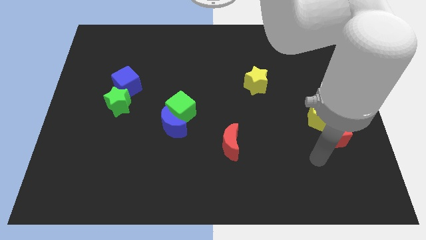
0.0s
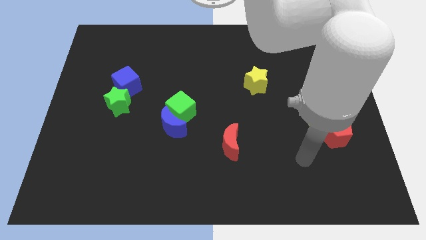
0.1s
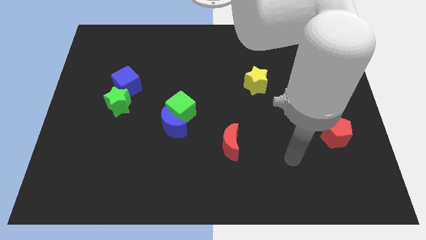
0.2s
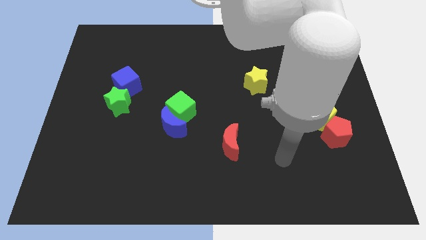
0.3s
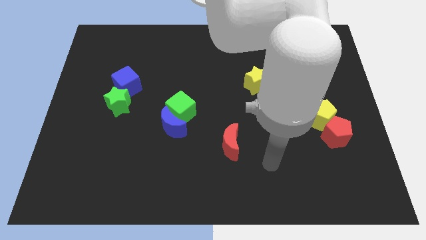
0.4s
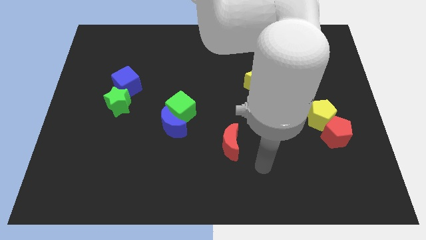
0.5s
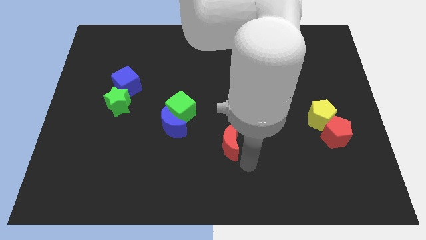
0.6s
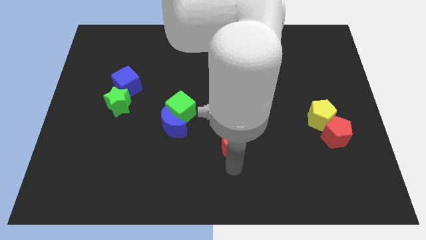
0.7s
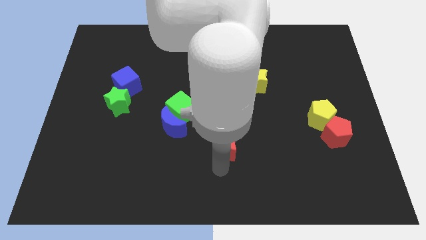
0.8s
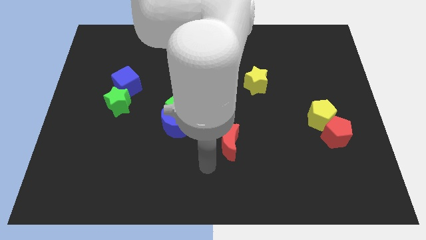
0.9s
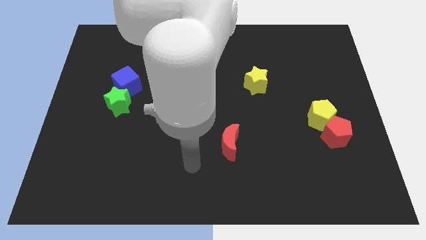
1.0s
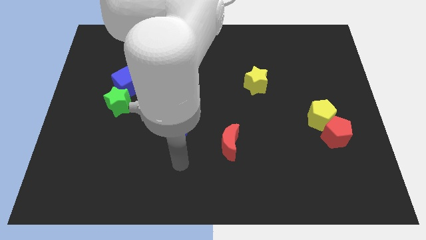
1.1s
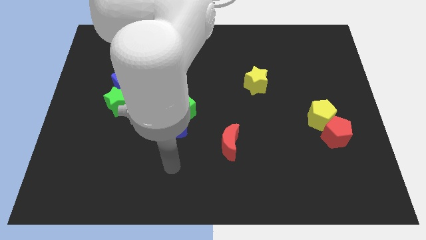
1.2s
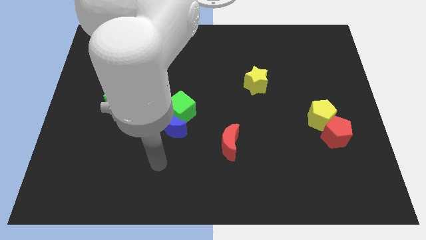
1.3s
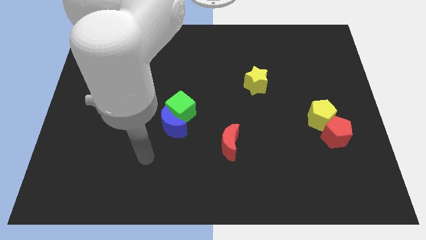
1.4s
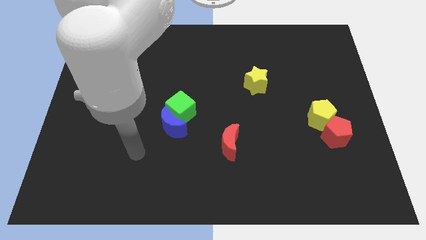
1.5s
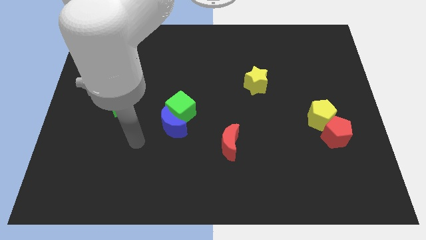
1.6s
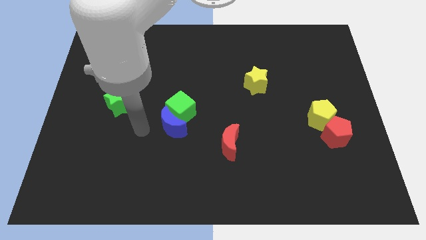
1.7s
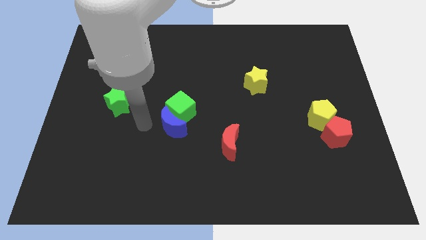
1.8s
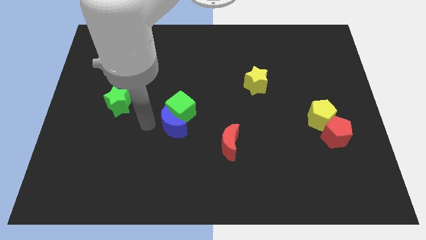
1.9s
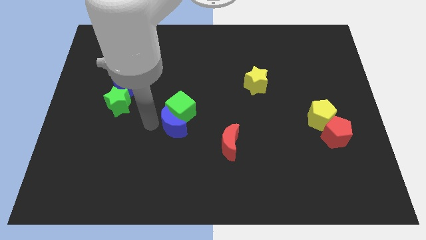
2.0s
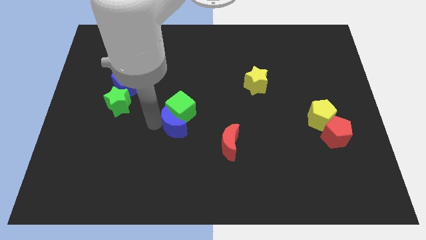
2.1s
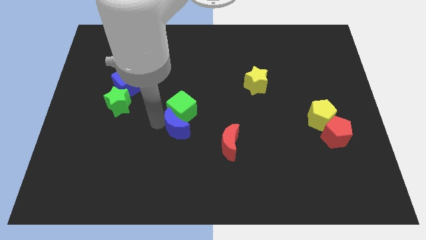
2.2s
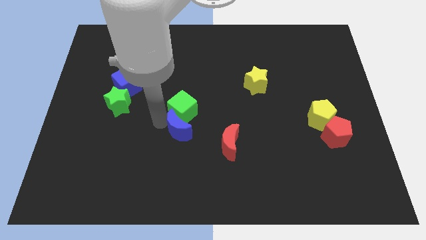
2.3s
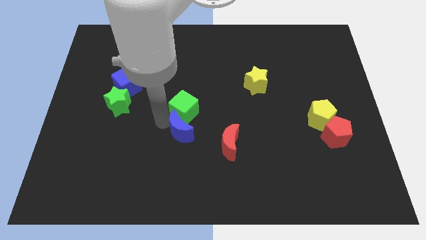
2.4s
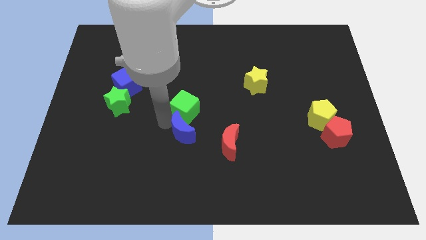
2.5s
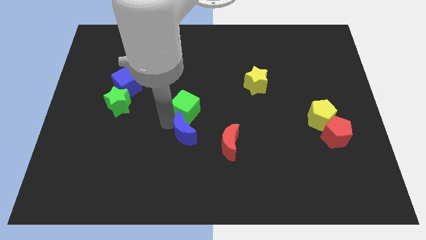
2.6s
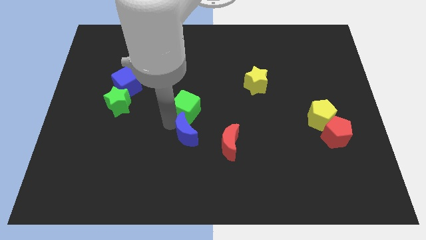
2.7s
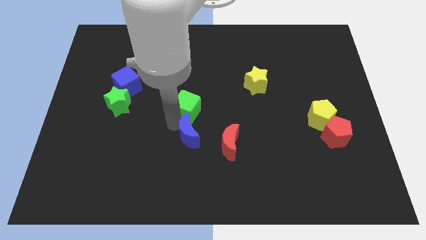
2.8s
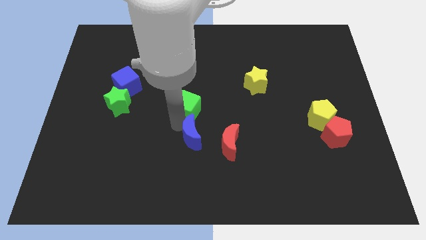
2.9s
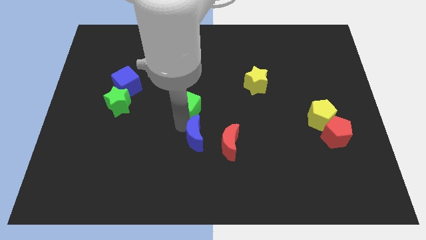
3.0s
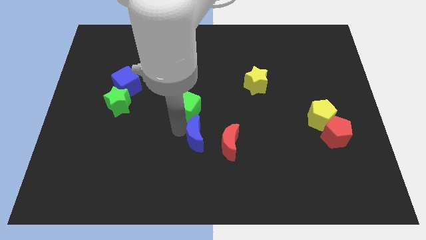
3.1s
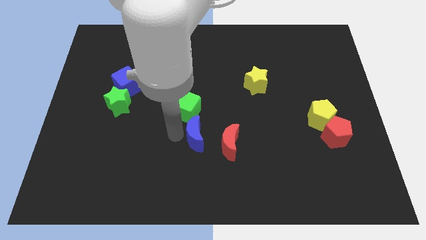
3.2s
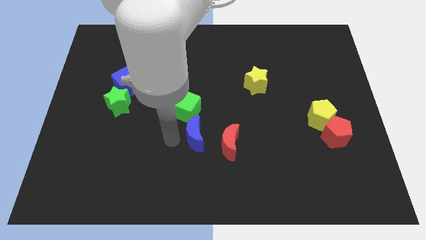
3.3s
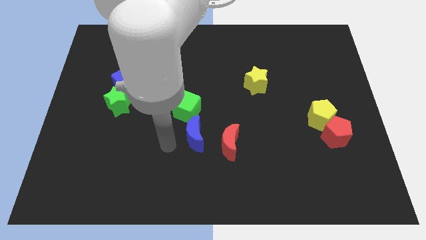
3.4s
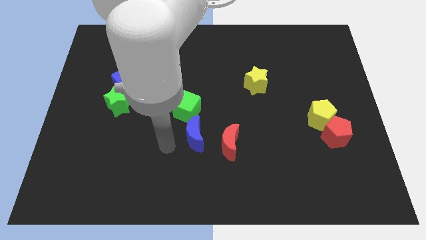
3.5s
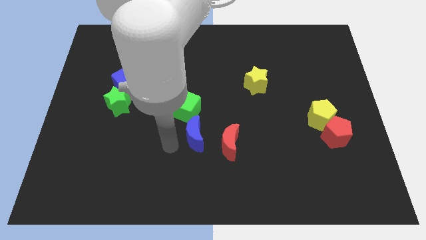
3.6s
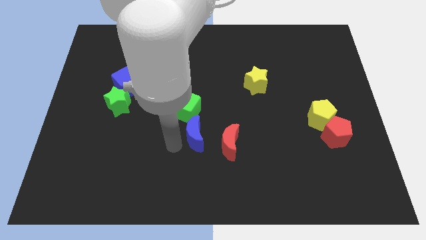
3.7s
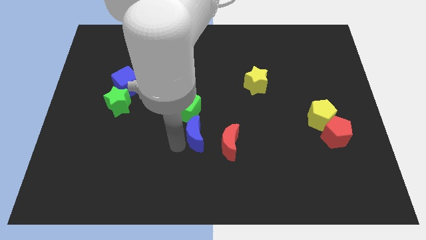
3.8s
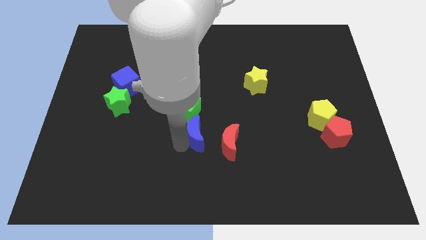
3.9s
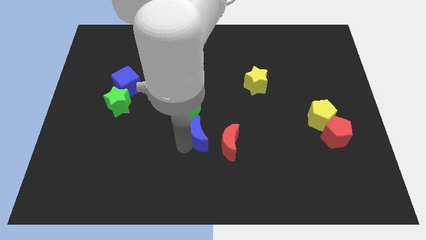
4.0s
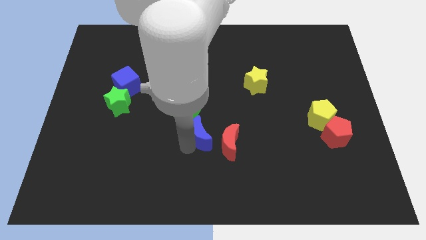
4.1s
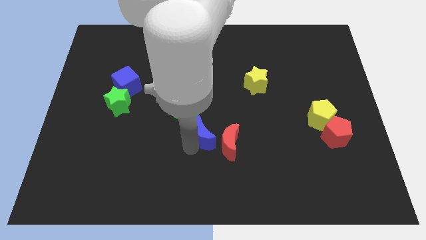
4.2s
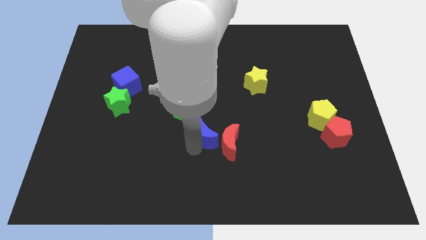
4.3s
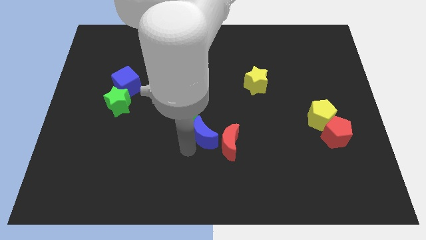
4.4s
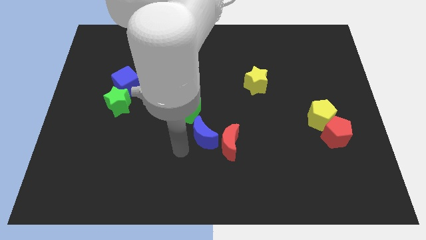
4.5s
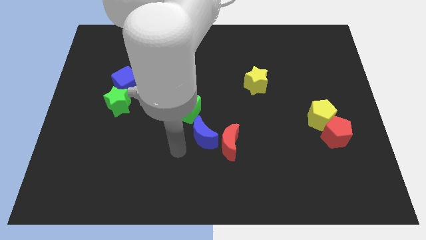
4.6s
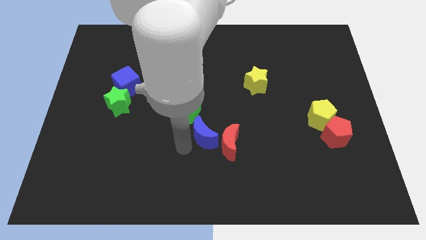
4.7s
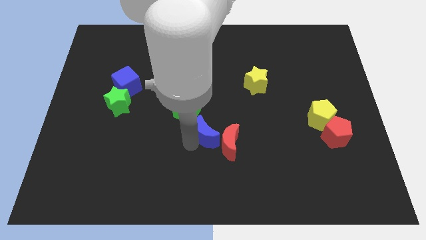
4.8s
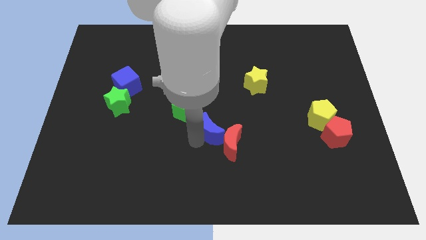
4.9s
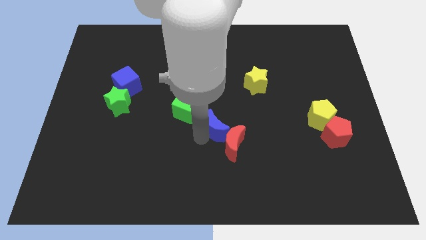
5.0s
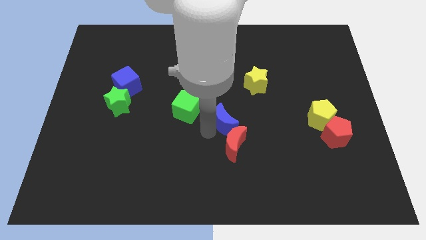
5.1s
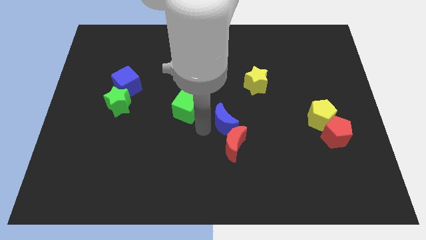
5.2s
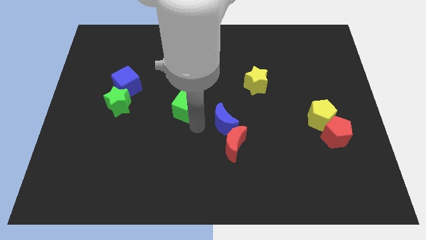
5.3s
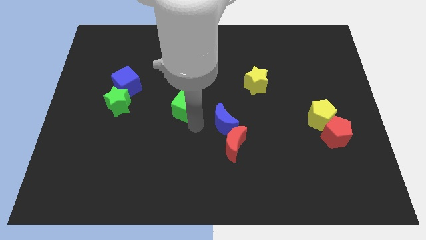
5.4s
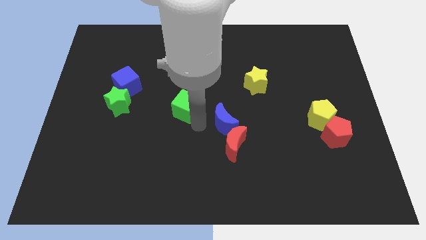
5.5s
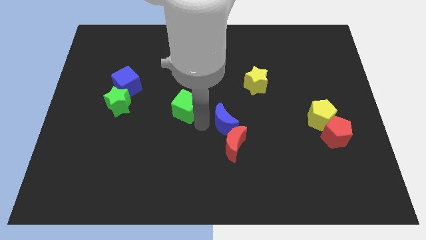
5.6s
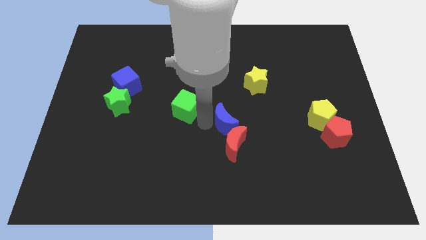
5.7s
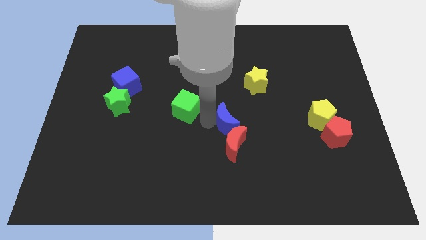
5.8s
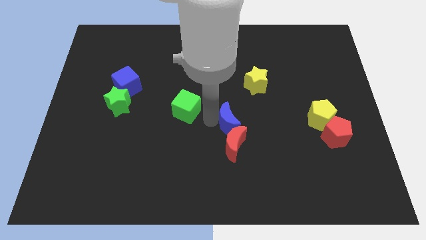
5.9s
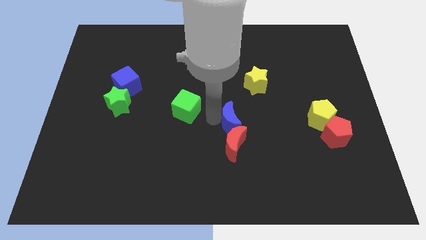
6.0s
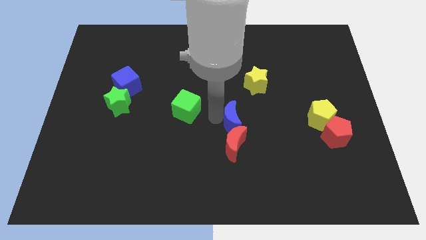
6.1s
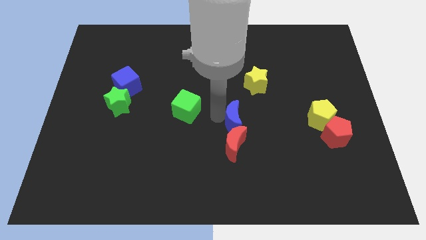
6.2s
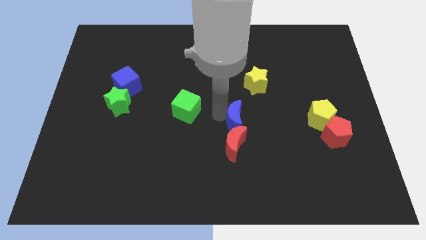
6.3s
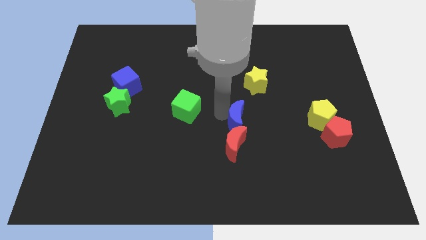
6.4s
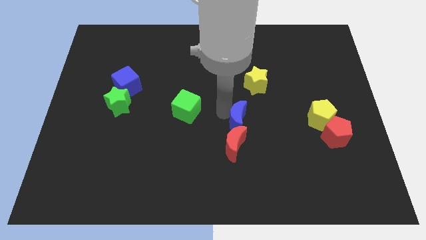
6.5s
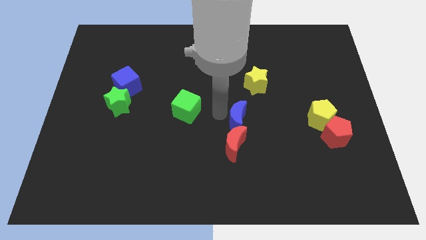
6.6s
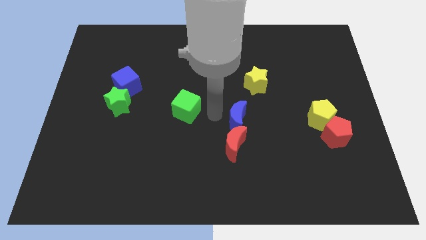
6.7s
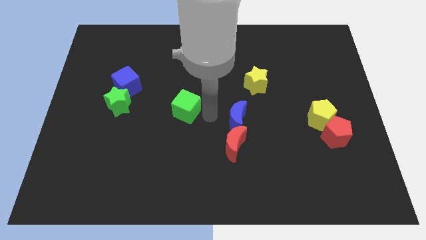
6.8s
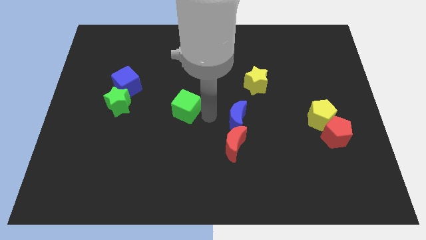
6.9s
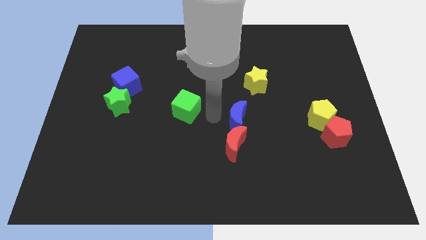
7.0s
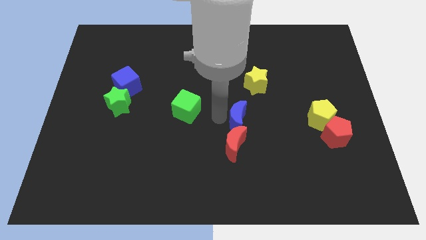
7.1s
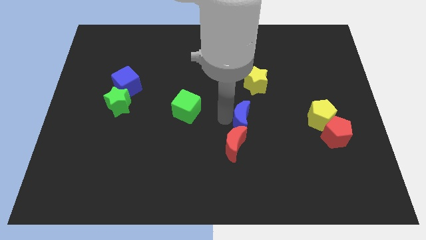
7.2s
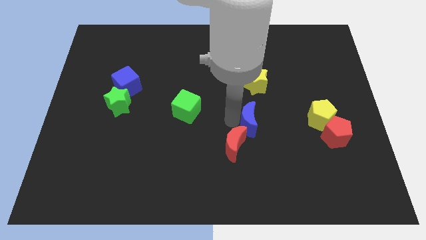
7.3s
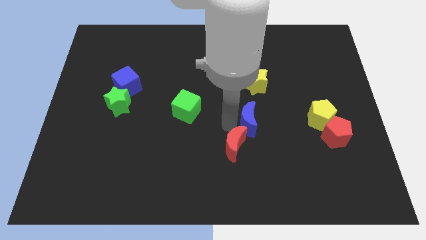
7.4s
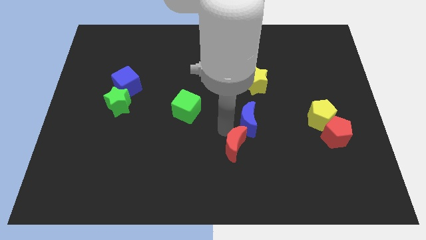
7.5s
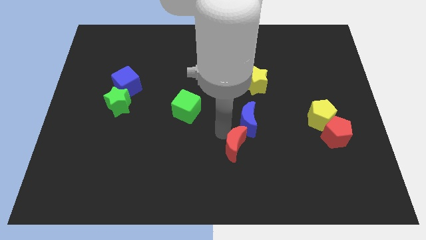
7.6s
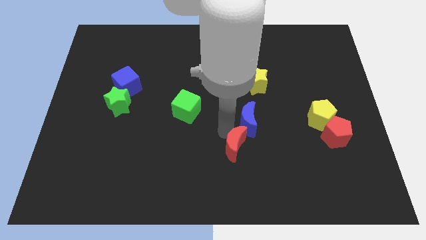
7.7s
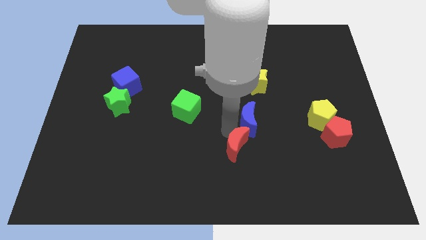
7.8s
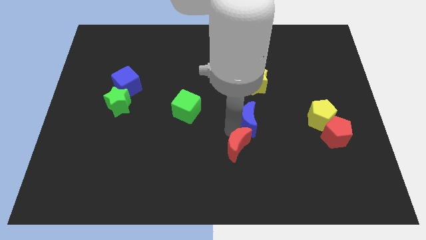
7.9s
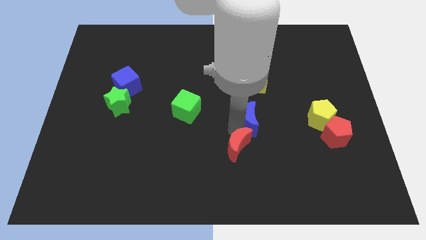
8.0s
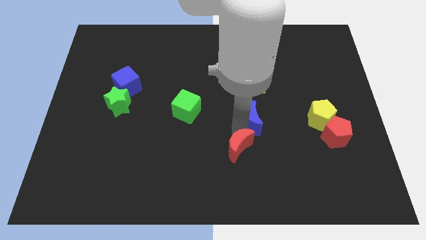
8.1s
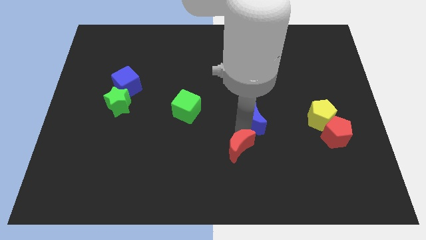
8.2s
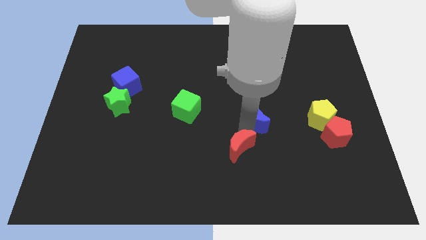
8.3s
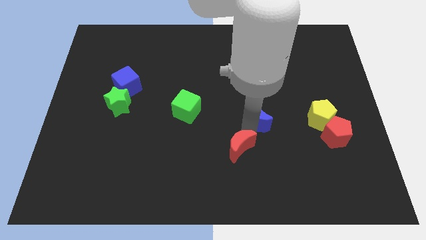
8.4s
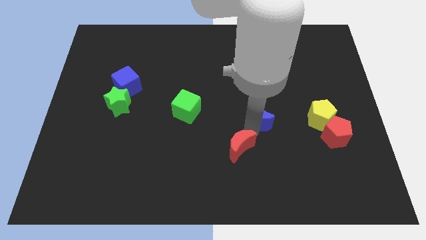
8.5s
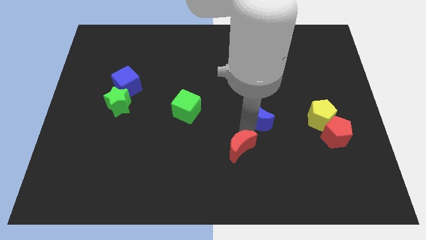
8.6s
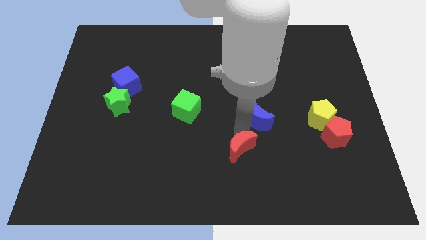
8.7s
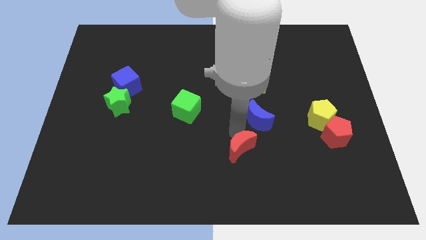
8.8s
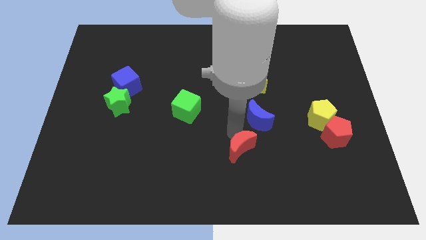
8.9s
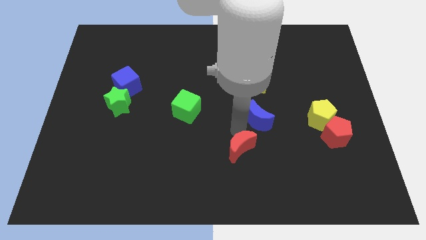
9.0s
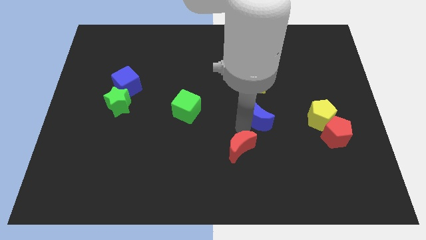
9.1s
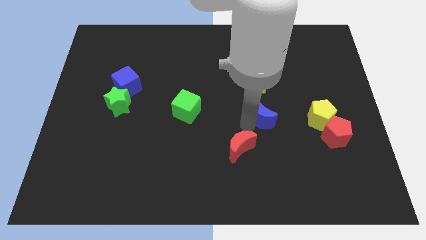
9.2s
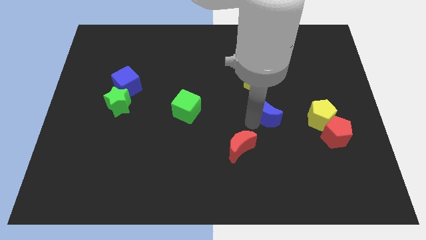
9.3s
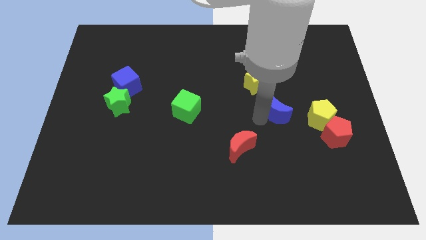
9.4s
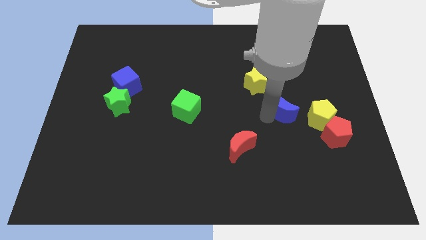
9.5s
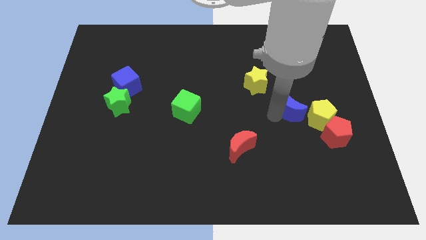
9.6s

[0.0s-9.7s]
move the blue moon to the top left of the yellow pentagon
